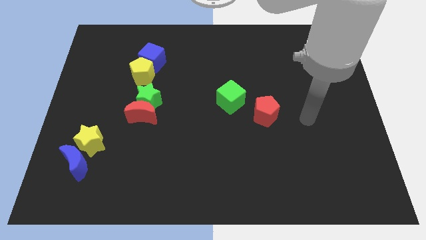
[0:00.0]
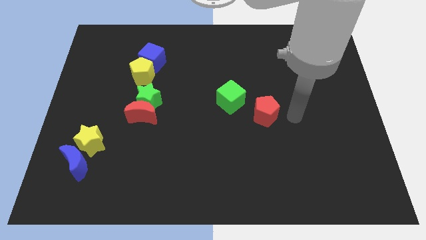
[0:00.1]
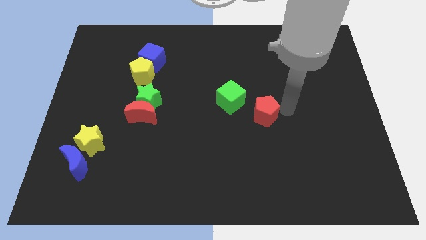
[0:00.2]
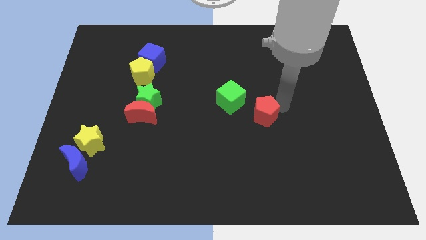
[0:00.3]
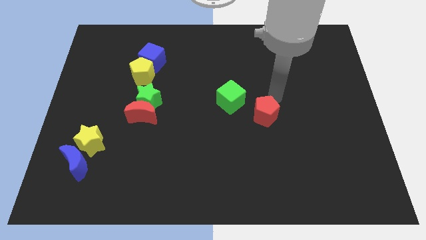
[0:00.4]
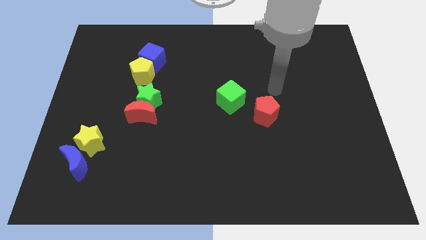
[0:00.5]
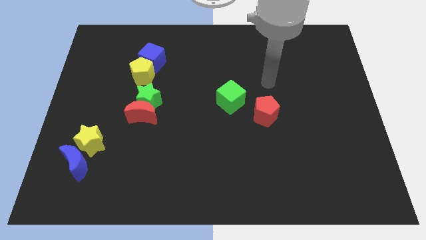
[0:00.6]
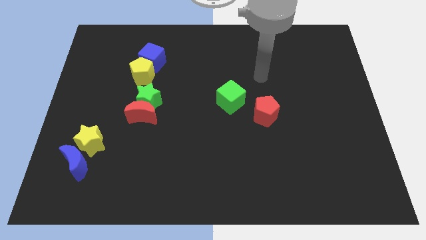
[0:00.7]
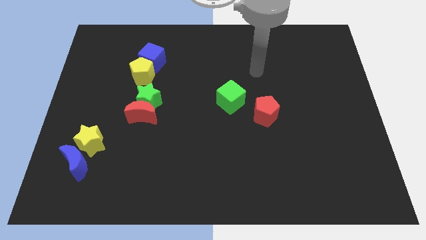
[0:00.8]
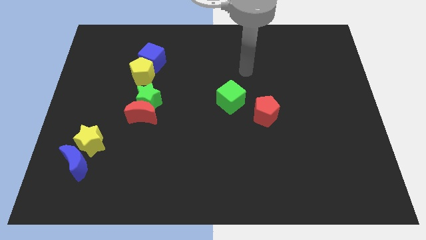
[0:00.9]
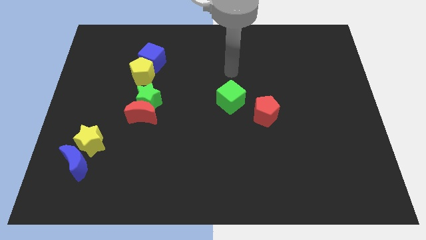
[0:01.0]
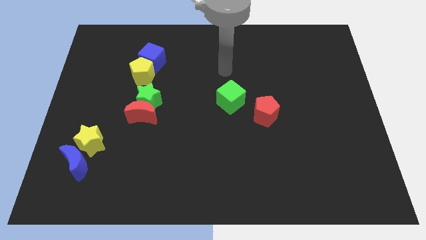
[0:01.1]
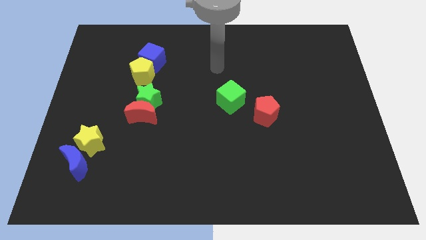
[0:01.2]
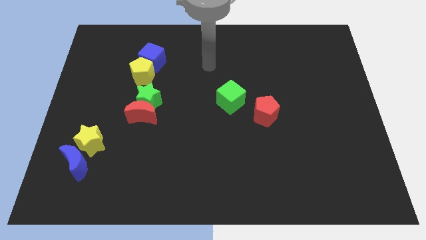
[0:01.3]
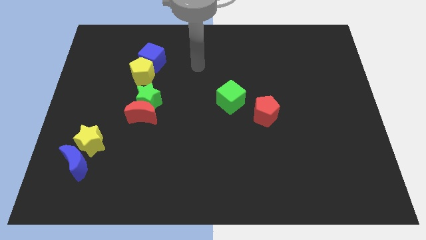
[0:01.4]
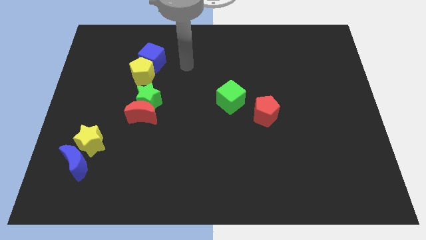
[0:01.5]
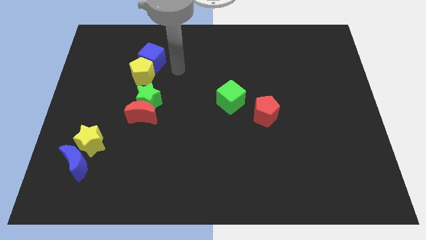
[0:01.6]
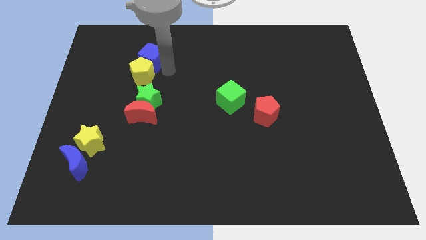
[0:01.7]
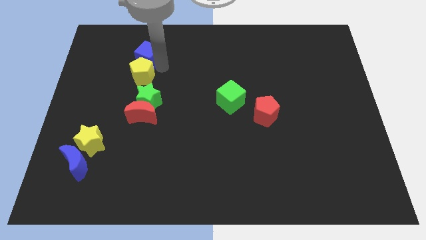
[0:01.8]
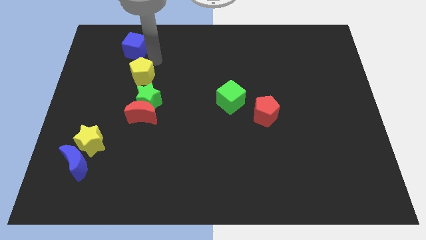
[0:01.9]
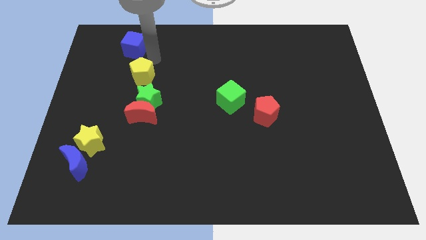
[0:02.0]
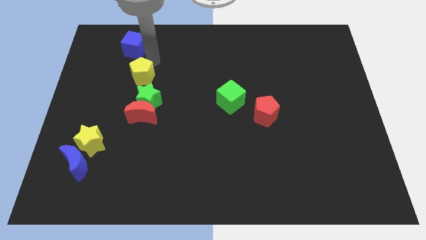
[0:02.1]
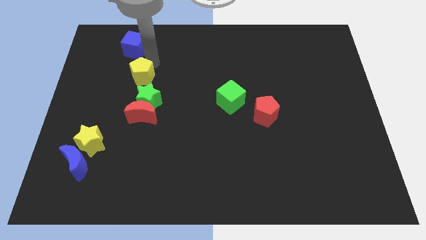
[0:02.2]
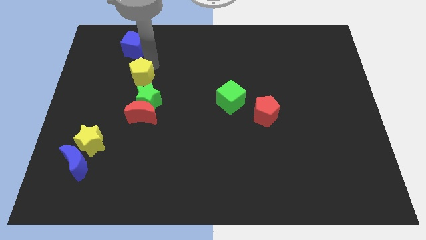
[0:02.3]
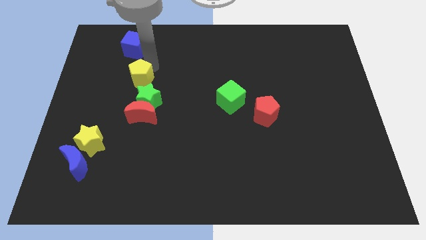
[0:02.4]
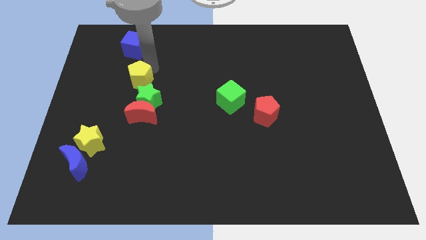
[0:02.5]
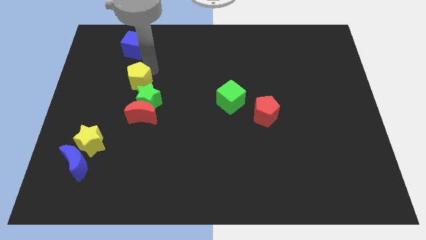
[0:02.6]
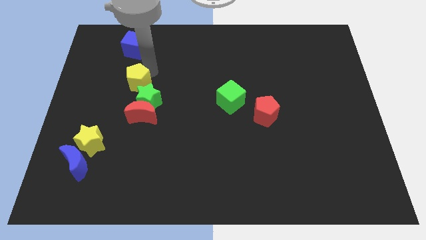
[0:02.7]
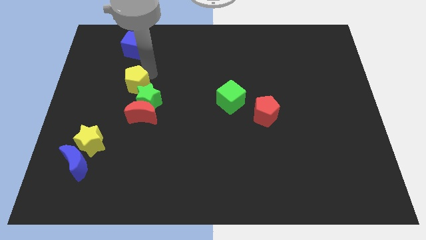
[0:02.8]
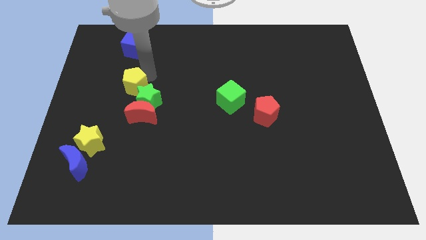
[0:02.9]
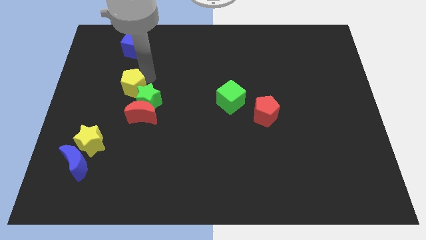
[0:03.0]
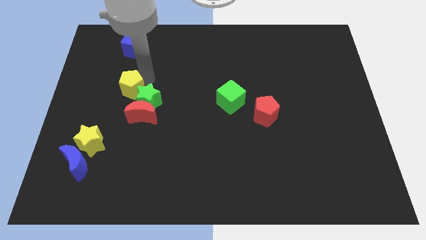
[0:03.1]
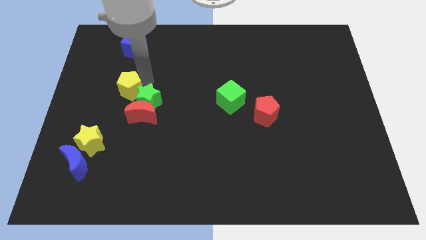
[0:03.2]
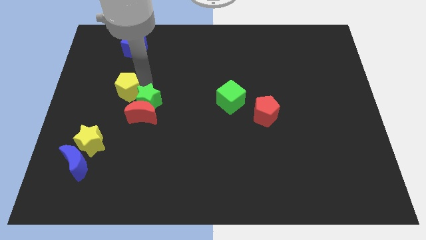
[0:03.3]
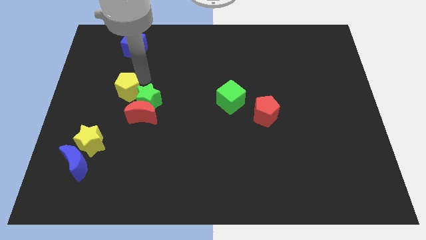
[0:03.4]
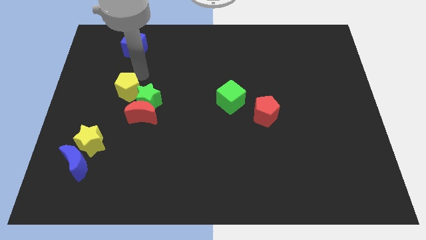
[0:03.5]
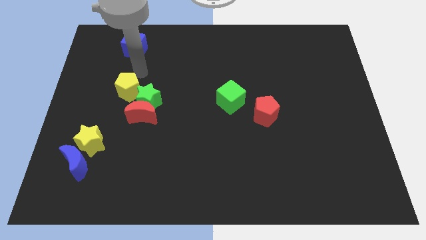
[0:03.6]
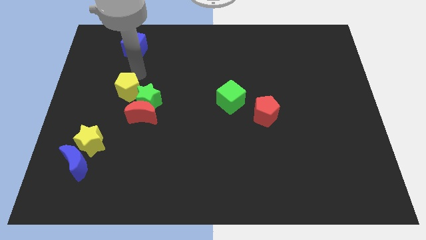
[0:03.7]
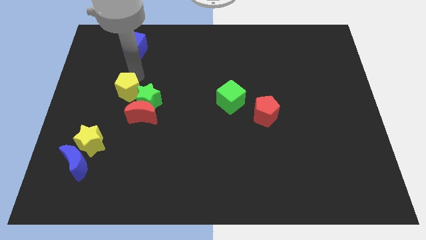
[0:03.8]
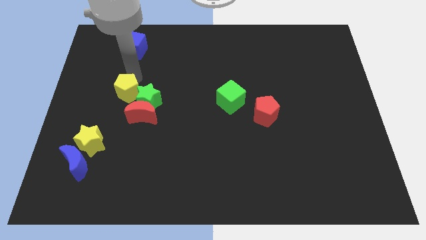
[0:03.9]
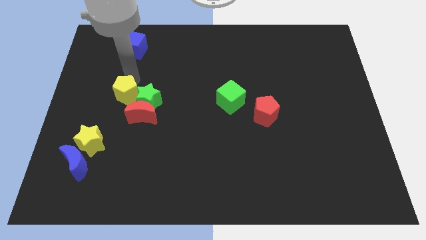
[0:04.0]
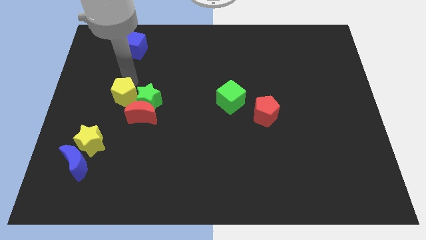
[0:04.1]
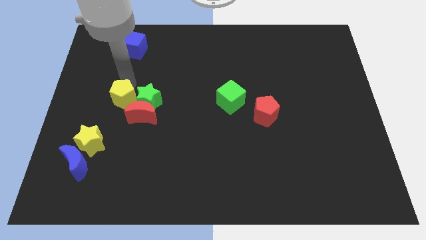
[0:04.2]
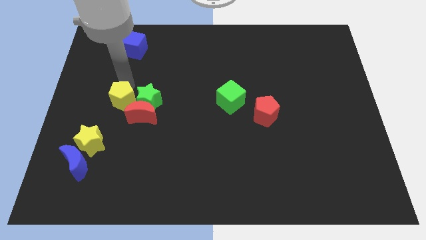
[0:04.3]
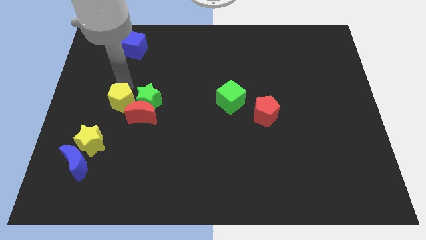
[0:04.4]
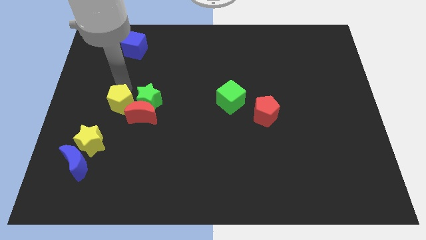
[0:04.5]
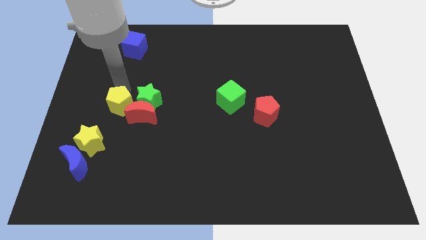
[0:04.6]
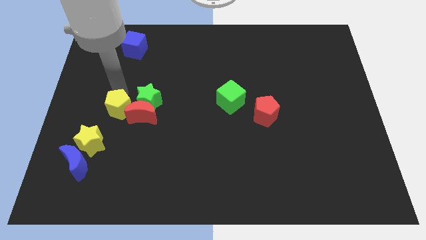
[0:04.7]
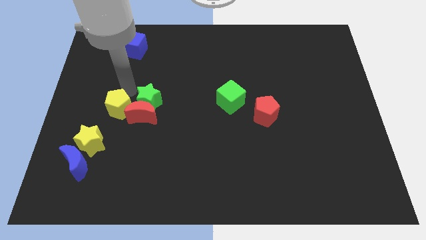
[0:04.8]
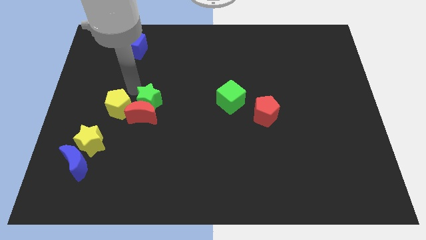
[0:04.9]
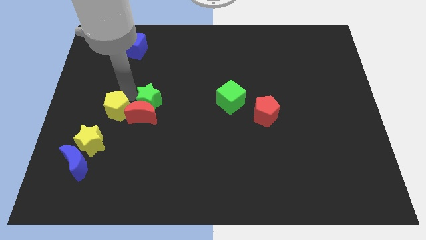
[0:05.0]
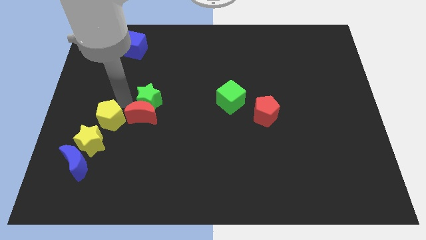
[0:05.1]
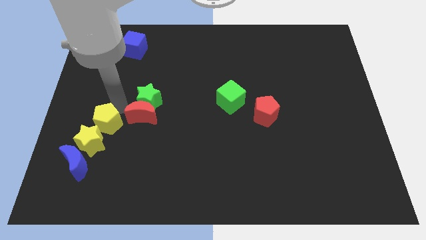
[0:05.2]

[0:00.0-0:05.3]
push the yellow pentagon towards the yellow star

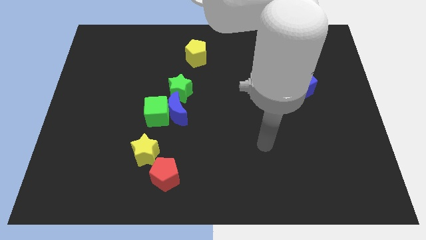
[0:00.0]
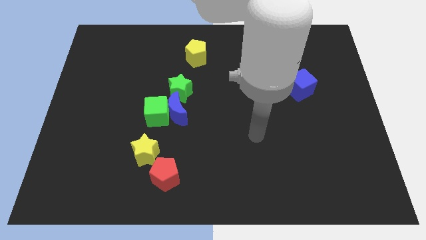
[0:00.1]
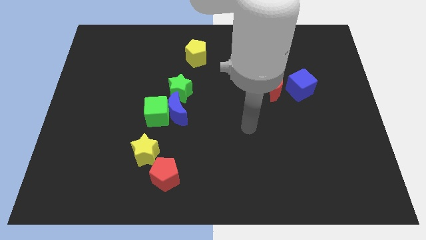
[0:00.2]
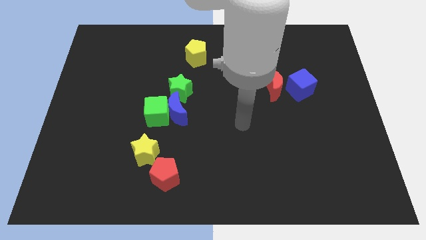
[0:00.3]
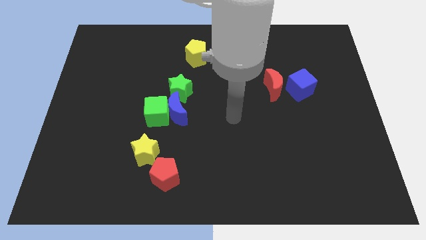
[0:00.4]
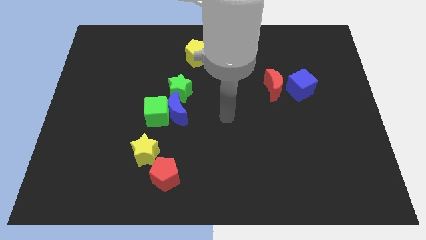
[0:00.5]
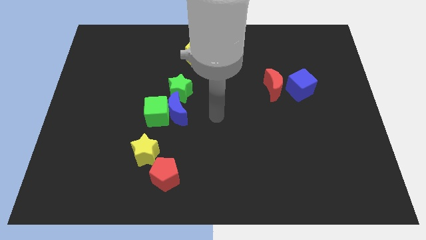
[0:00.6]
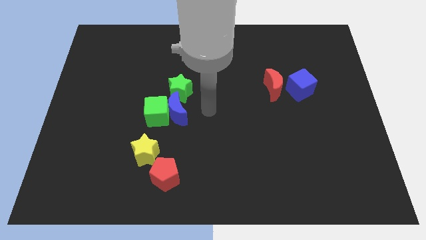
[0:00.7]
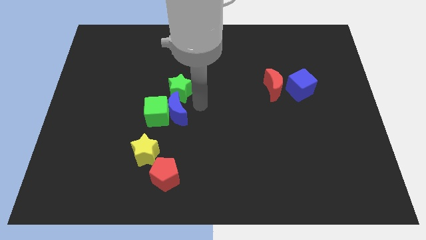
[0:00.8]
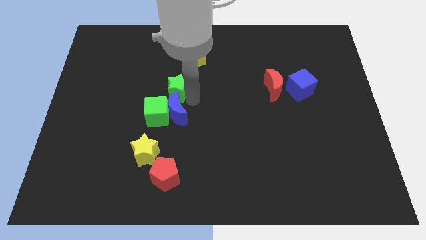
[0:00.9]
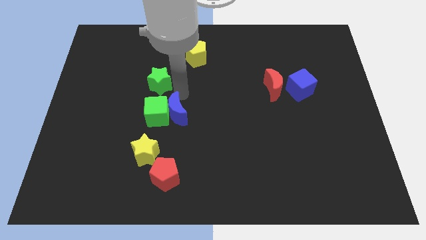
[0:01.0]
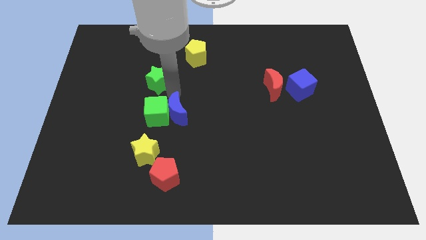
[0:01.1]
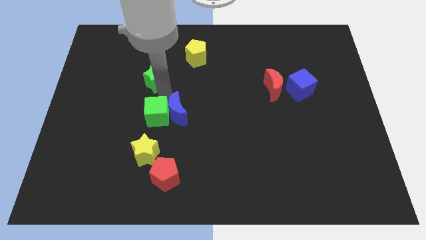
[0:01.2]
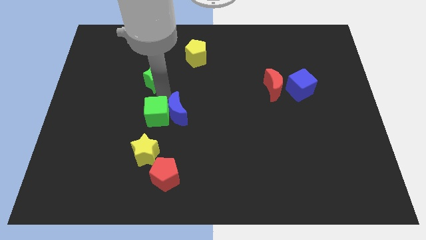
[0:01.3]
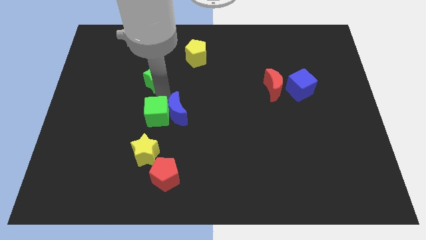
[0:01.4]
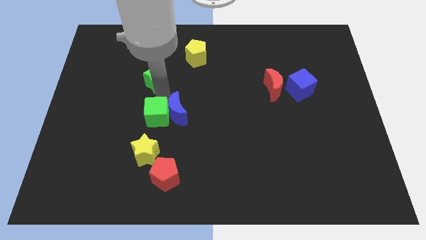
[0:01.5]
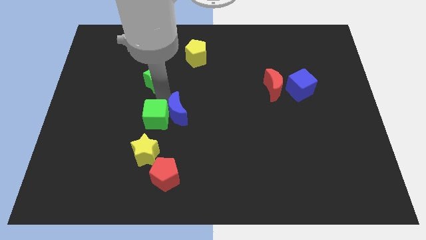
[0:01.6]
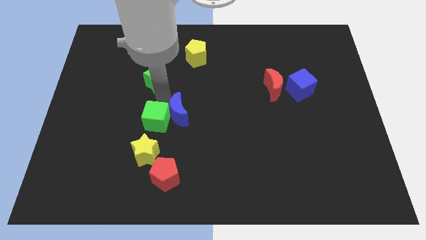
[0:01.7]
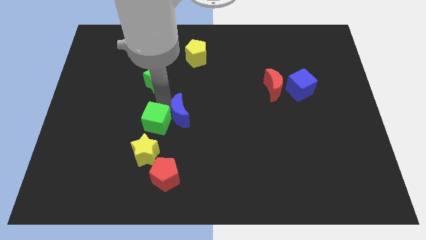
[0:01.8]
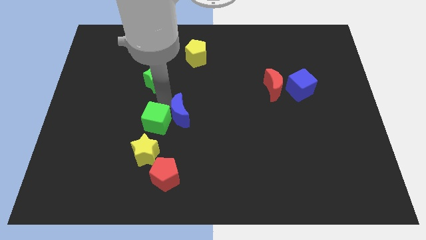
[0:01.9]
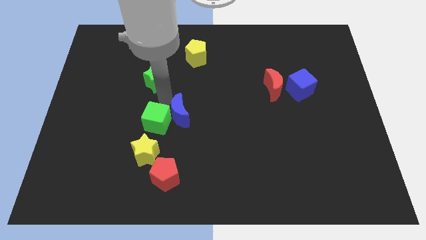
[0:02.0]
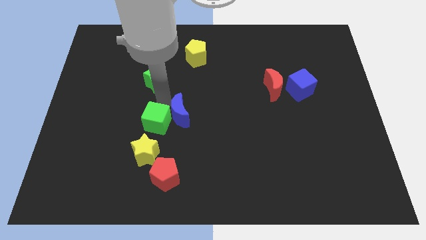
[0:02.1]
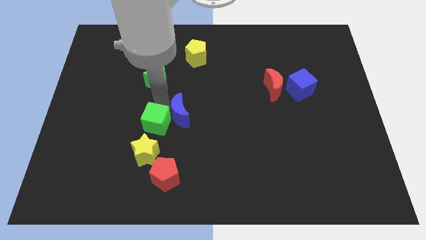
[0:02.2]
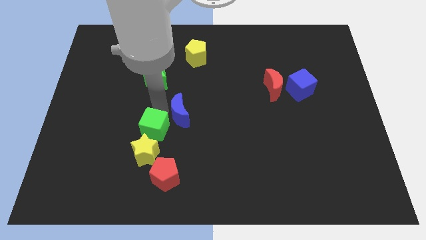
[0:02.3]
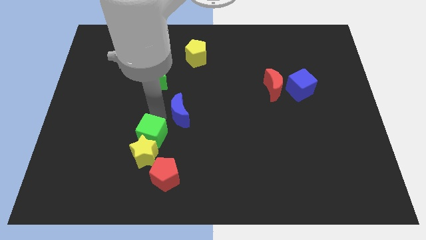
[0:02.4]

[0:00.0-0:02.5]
push the green cube towards the yellow star
